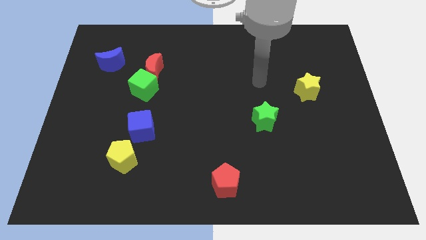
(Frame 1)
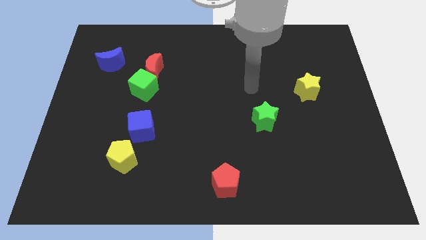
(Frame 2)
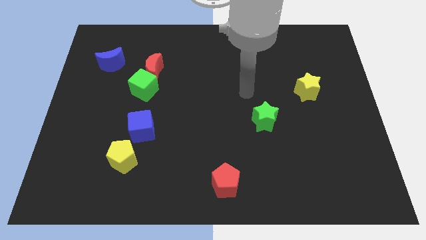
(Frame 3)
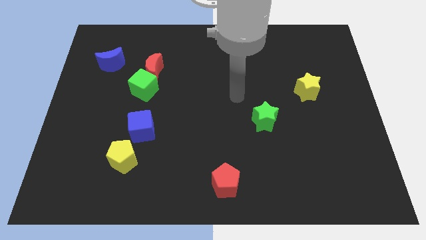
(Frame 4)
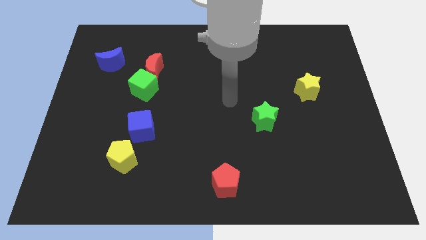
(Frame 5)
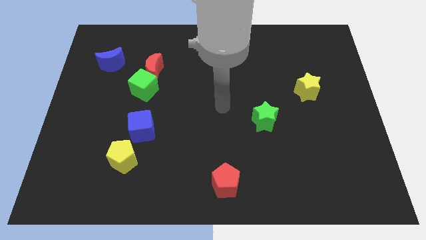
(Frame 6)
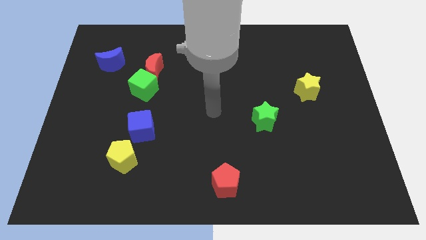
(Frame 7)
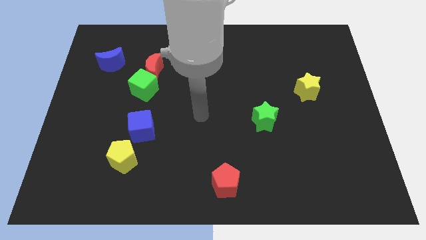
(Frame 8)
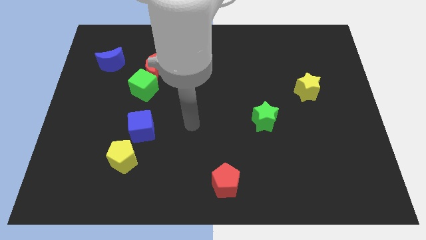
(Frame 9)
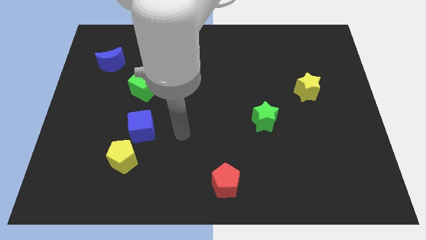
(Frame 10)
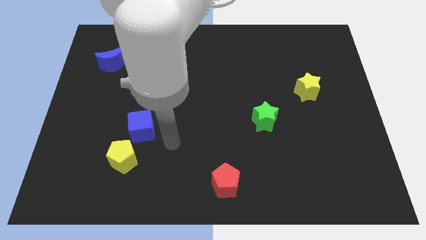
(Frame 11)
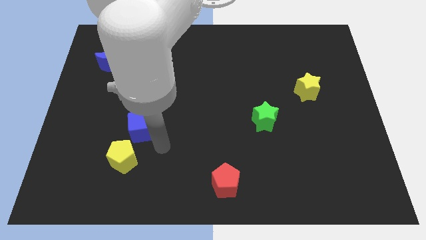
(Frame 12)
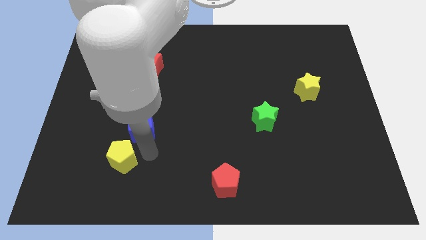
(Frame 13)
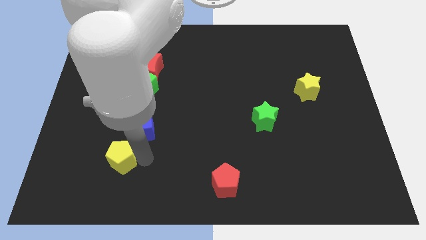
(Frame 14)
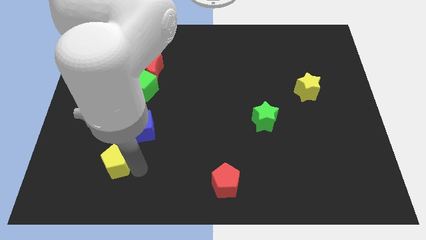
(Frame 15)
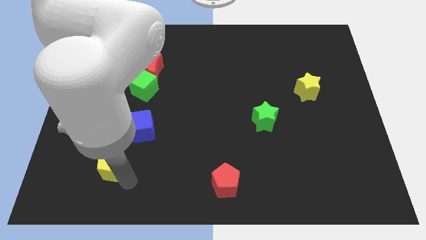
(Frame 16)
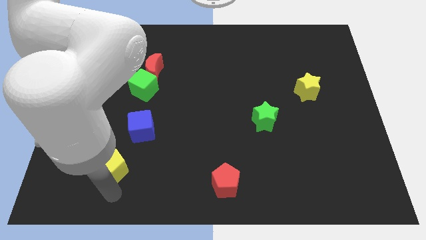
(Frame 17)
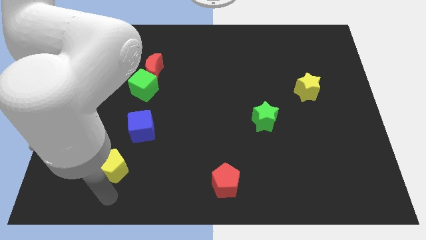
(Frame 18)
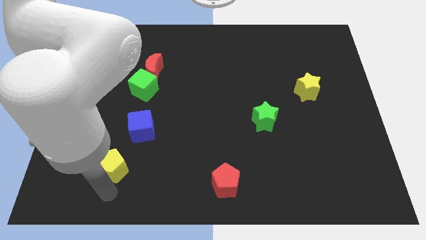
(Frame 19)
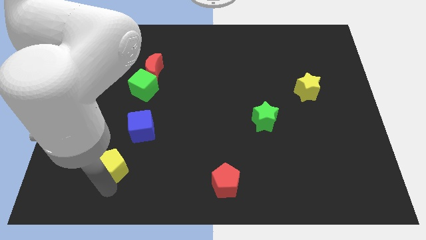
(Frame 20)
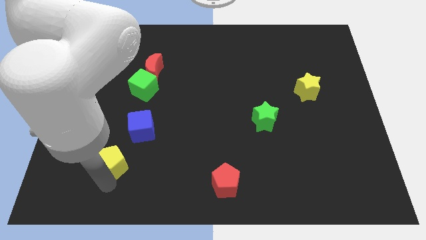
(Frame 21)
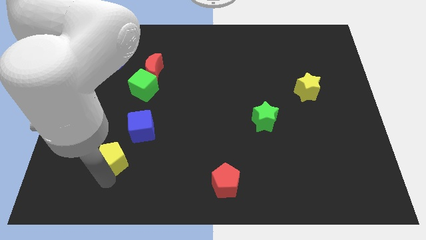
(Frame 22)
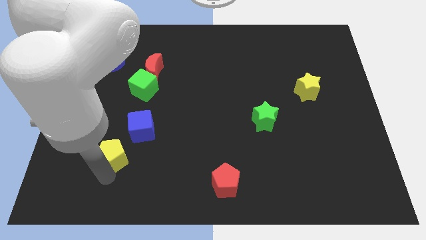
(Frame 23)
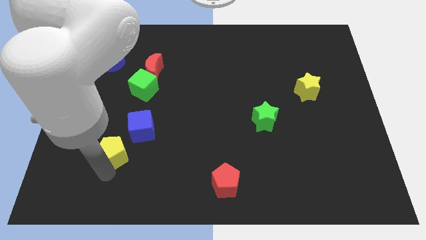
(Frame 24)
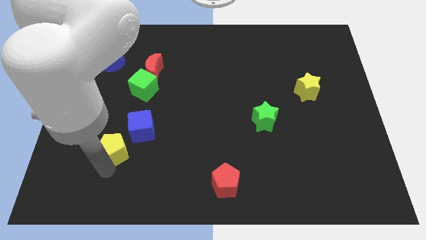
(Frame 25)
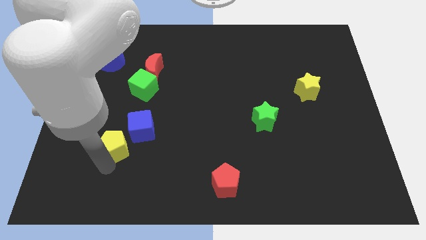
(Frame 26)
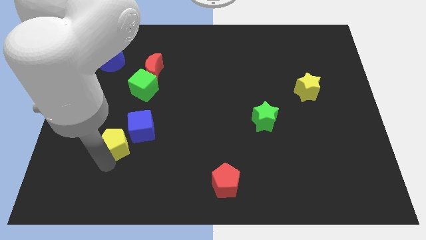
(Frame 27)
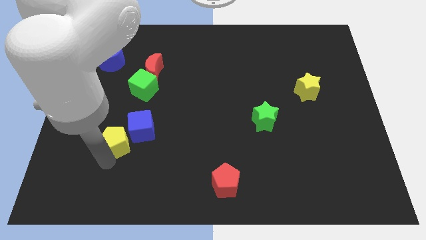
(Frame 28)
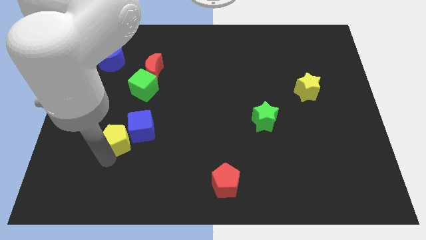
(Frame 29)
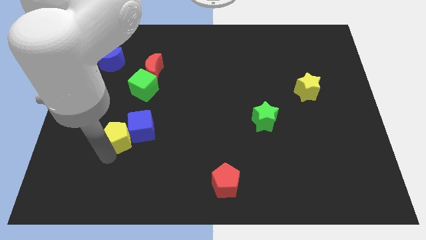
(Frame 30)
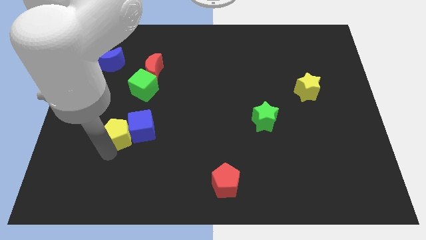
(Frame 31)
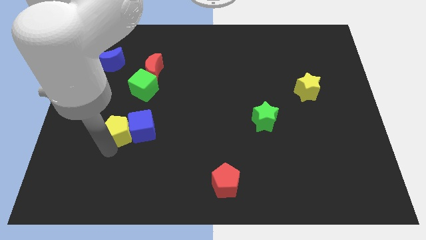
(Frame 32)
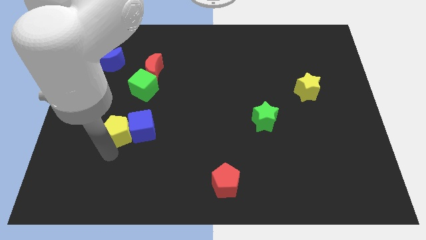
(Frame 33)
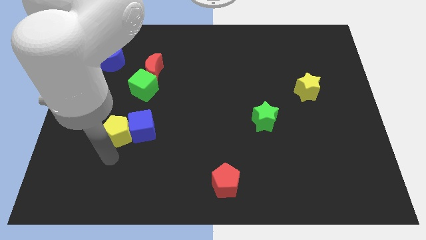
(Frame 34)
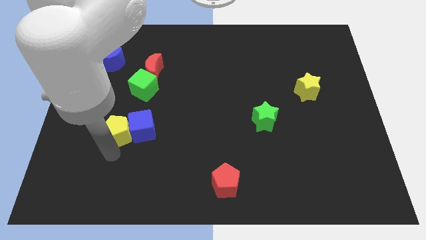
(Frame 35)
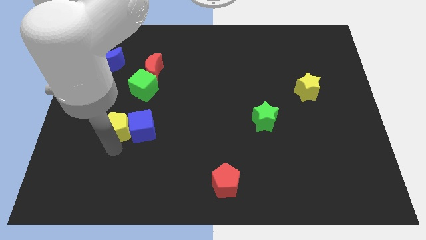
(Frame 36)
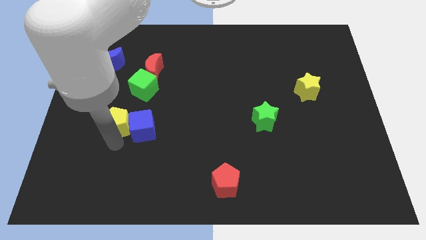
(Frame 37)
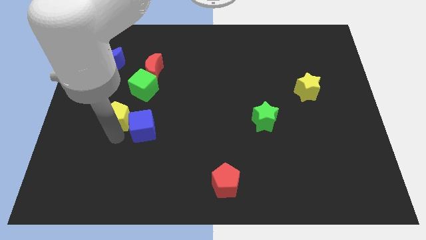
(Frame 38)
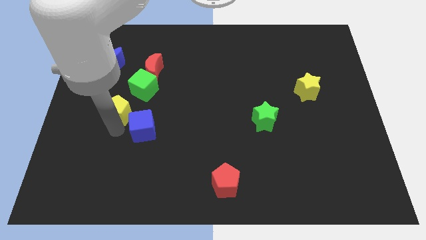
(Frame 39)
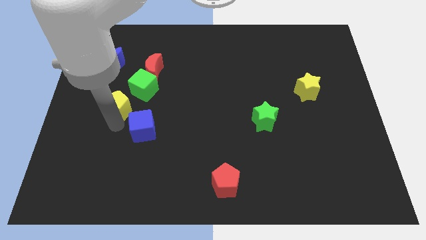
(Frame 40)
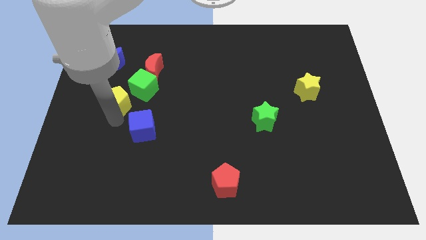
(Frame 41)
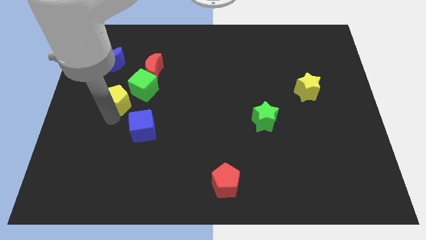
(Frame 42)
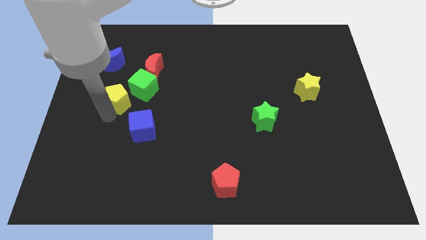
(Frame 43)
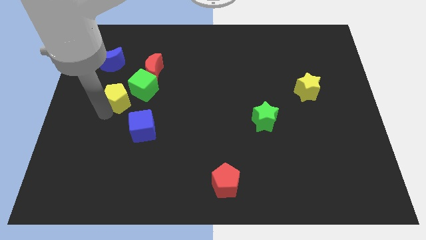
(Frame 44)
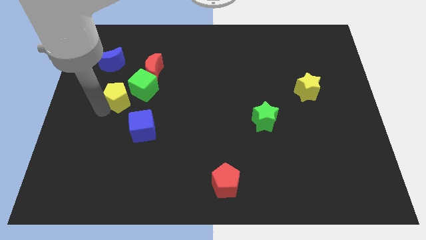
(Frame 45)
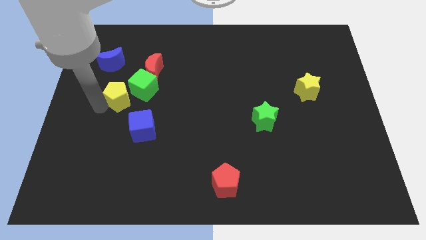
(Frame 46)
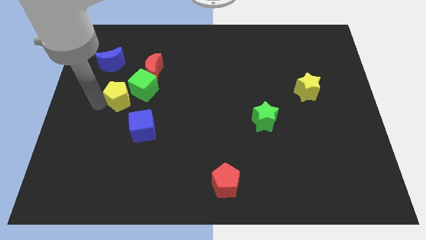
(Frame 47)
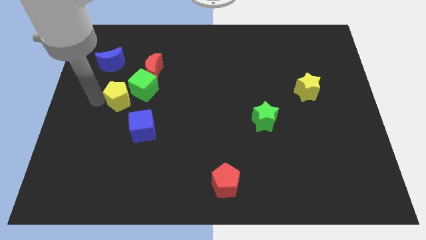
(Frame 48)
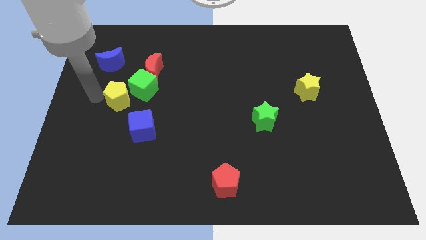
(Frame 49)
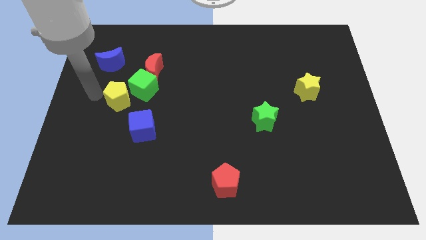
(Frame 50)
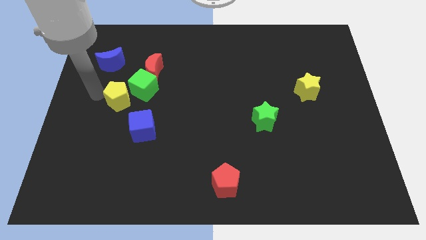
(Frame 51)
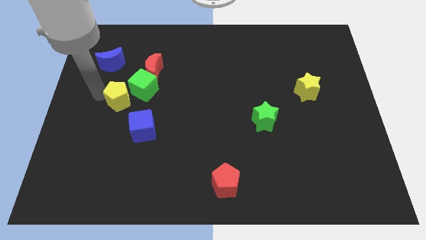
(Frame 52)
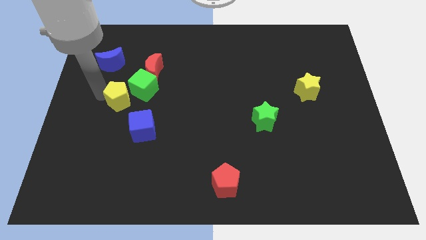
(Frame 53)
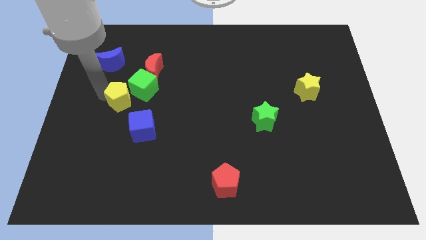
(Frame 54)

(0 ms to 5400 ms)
move the yellow pentagon close to the green cube

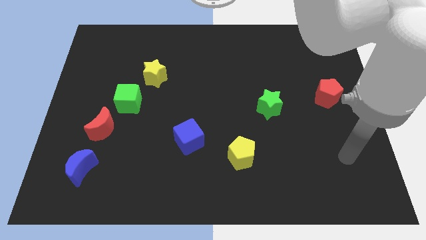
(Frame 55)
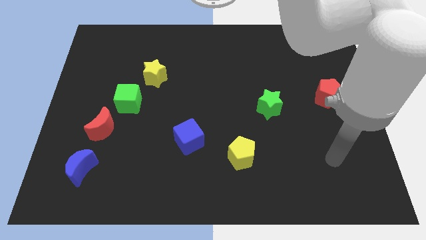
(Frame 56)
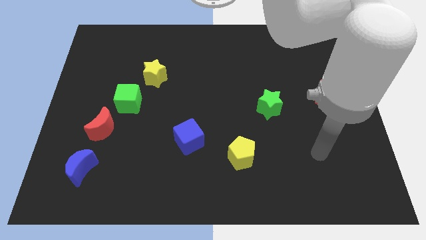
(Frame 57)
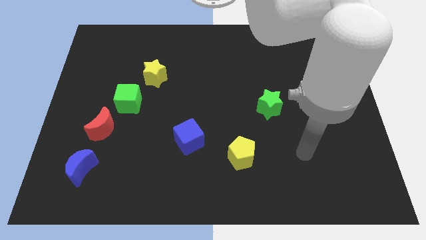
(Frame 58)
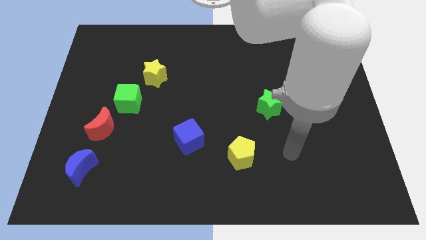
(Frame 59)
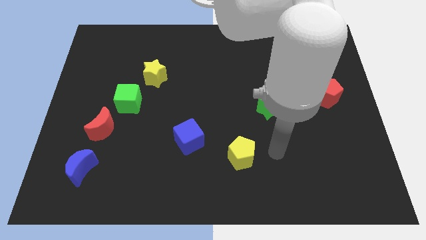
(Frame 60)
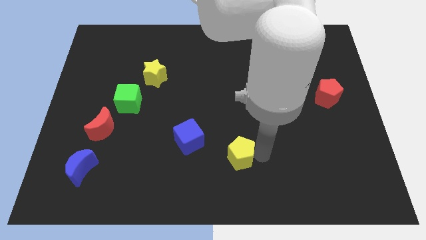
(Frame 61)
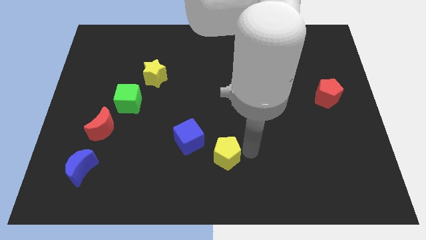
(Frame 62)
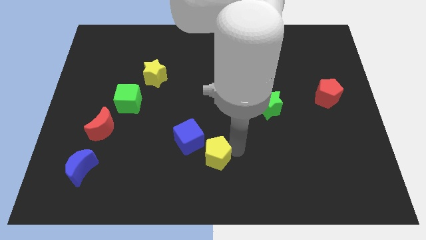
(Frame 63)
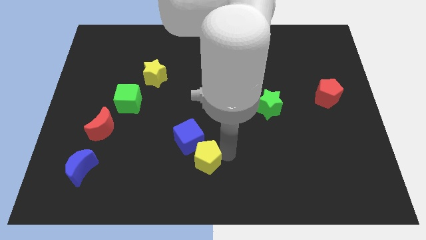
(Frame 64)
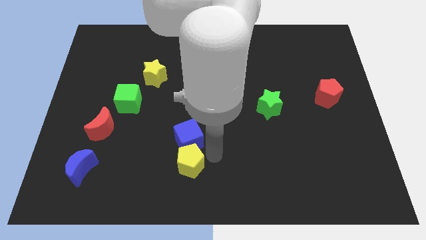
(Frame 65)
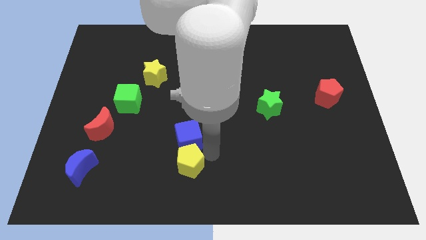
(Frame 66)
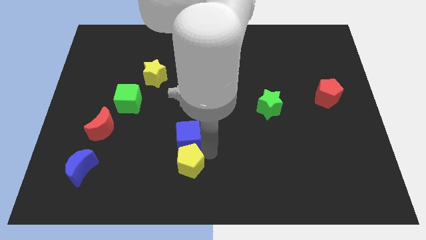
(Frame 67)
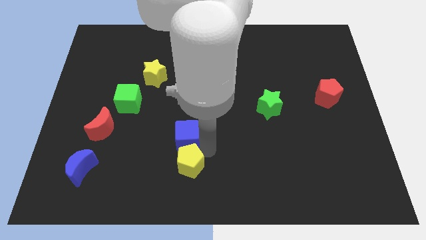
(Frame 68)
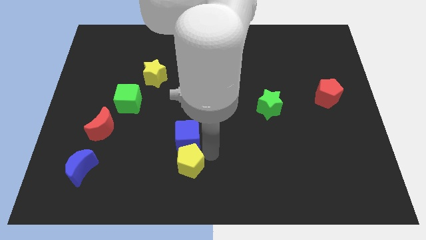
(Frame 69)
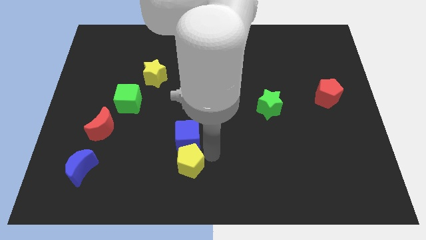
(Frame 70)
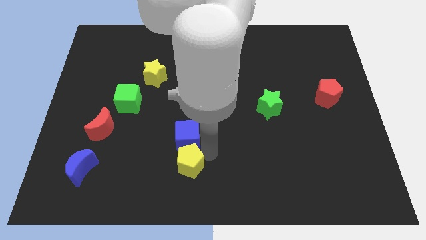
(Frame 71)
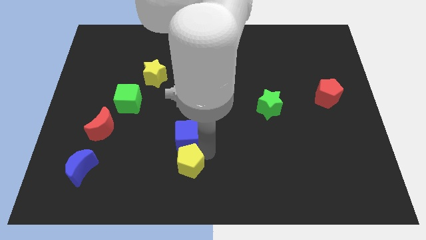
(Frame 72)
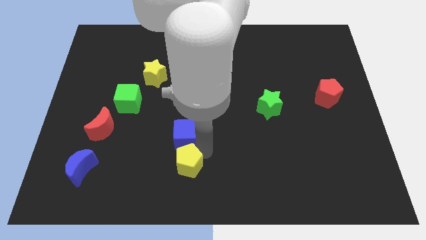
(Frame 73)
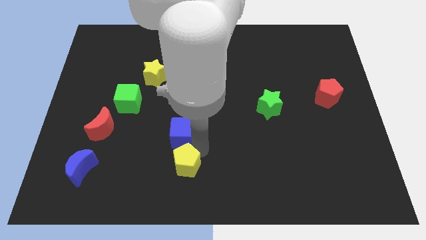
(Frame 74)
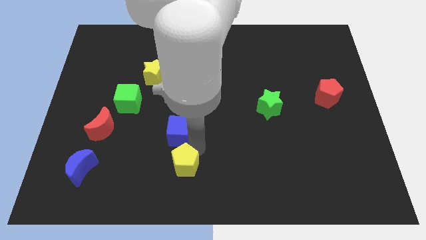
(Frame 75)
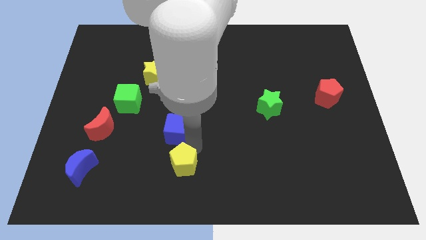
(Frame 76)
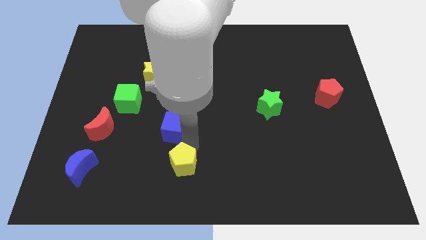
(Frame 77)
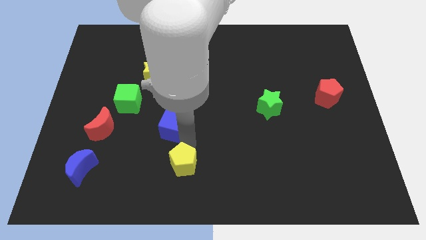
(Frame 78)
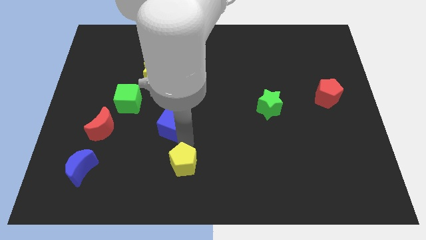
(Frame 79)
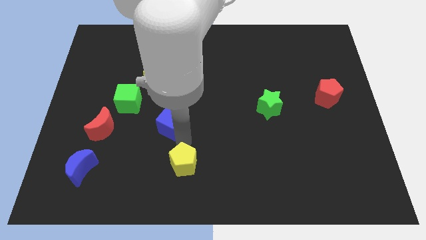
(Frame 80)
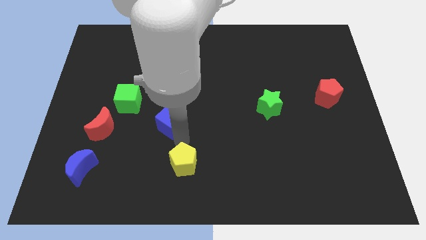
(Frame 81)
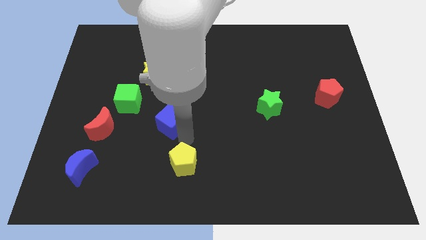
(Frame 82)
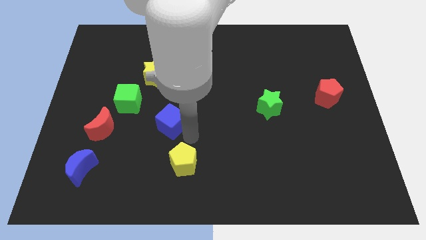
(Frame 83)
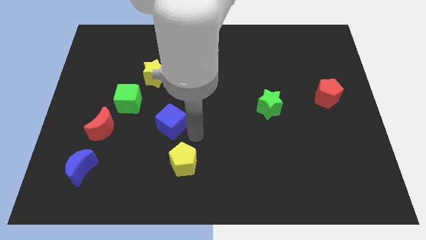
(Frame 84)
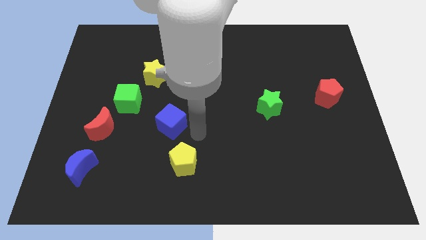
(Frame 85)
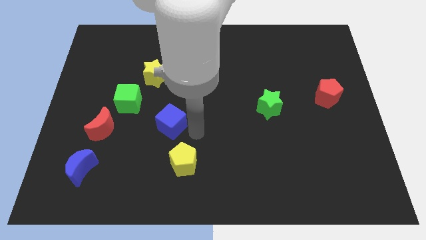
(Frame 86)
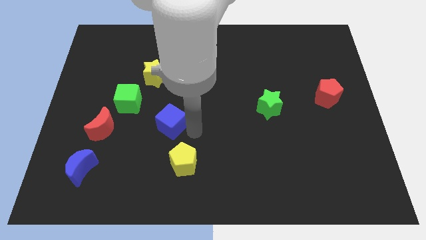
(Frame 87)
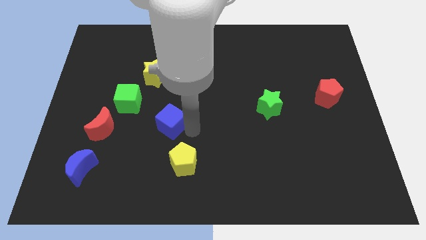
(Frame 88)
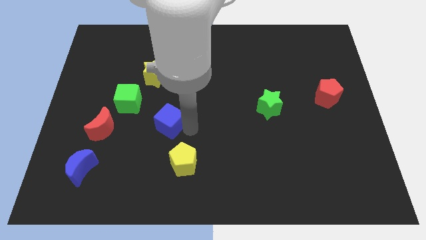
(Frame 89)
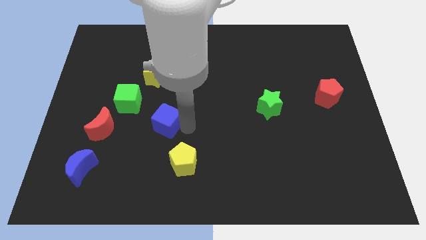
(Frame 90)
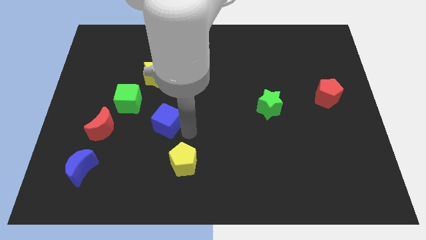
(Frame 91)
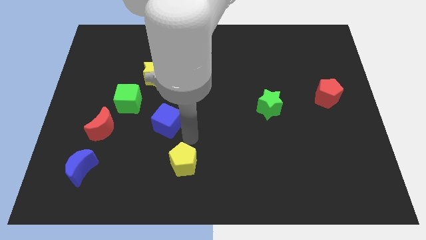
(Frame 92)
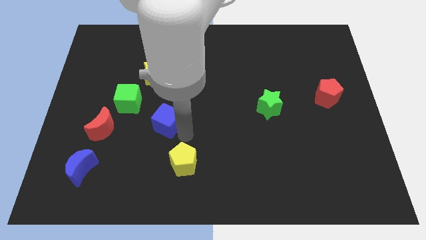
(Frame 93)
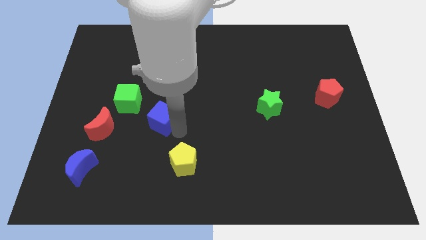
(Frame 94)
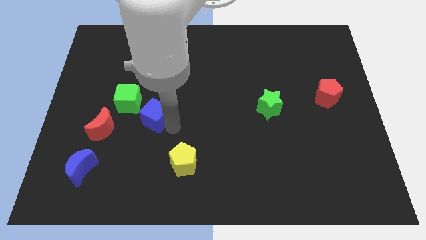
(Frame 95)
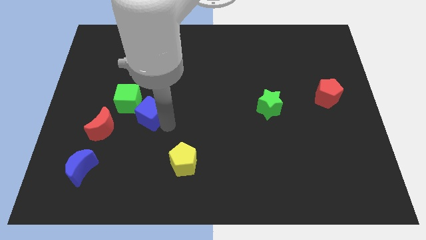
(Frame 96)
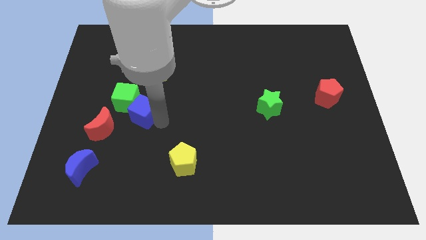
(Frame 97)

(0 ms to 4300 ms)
move the blue cube next to the green cube
